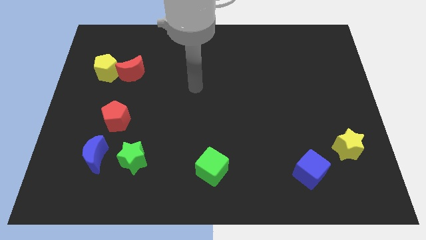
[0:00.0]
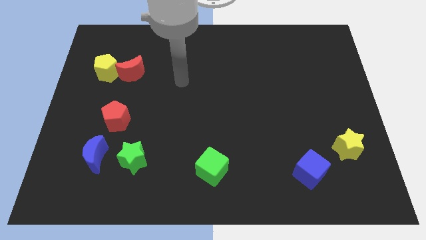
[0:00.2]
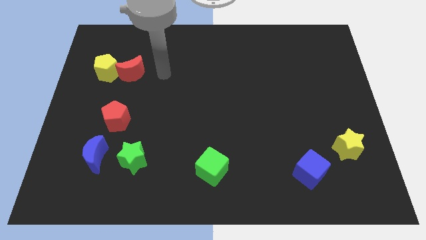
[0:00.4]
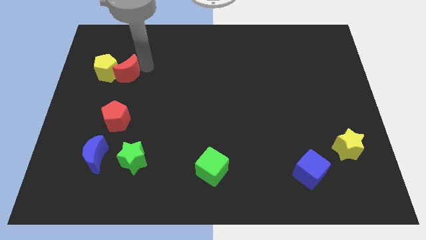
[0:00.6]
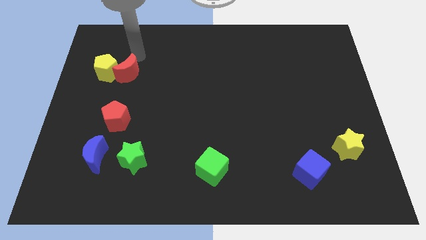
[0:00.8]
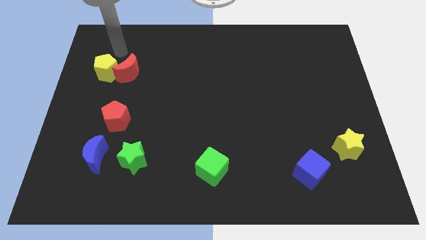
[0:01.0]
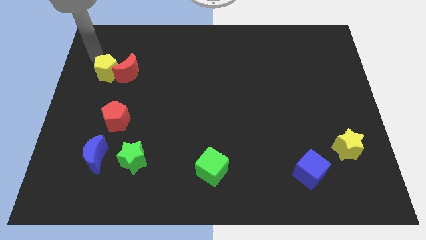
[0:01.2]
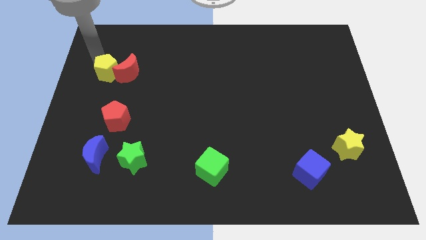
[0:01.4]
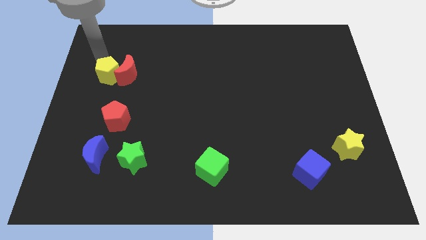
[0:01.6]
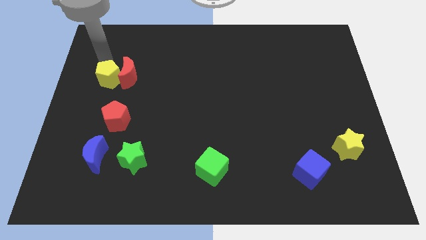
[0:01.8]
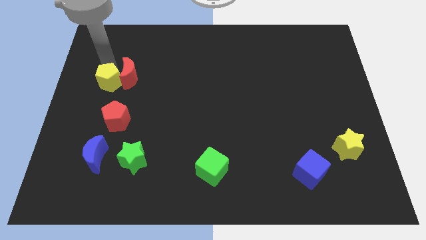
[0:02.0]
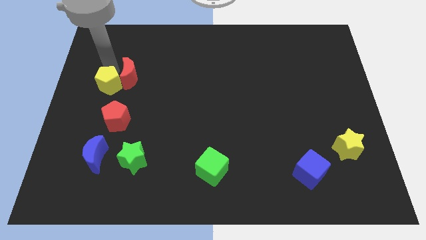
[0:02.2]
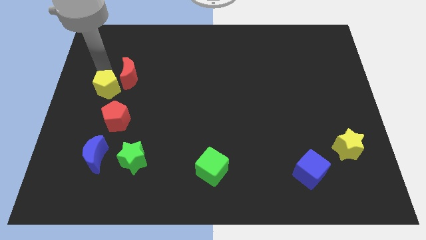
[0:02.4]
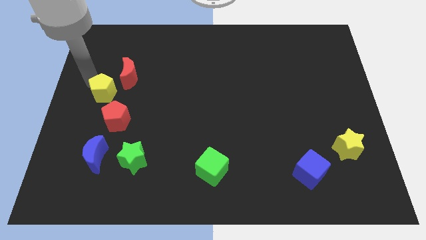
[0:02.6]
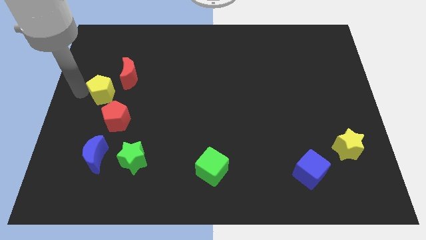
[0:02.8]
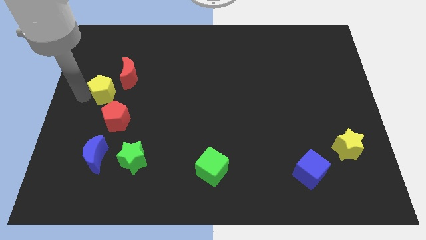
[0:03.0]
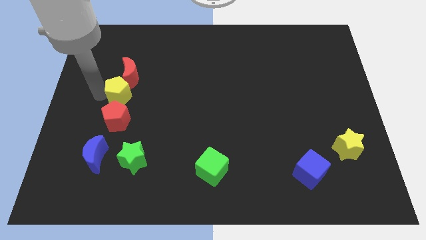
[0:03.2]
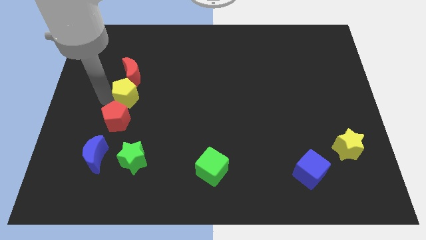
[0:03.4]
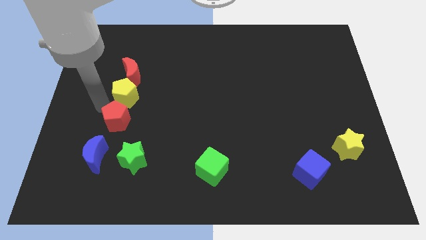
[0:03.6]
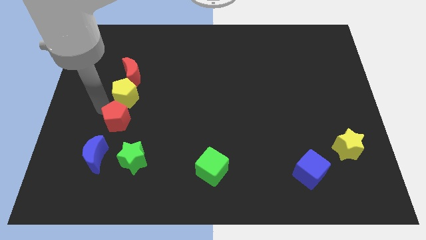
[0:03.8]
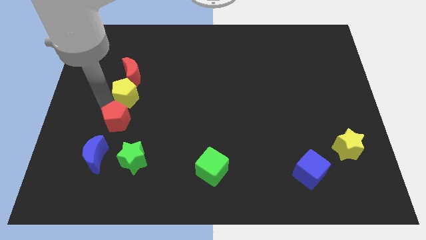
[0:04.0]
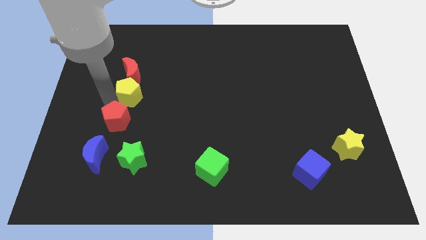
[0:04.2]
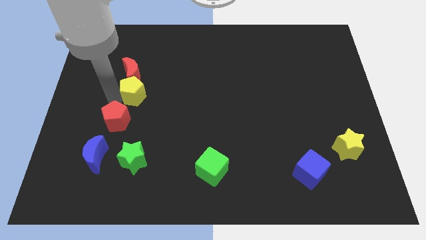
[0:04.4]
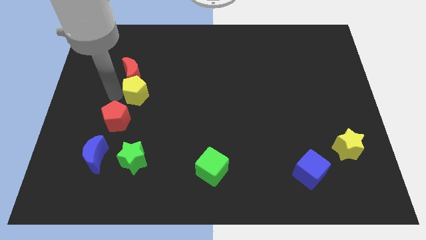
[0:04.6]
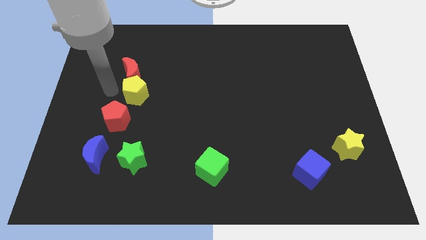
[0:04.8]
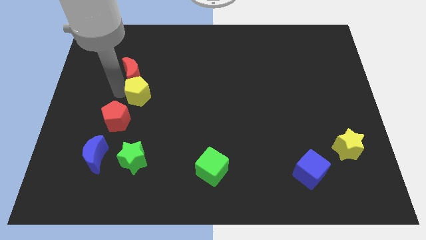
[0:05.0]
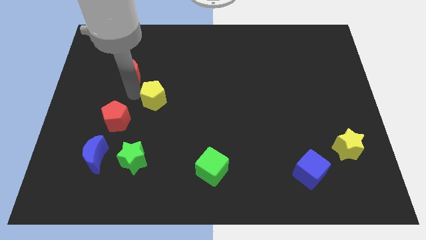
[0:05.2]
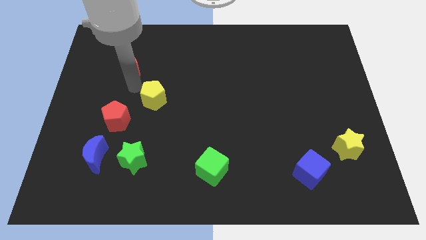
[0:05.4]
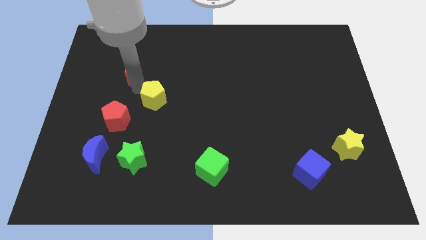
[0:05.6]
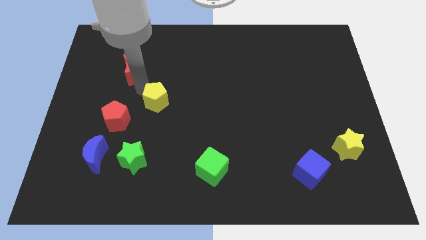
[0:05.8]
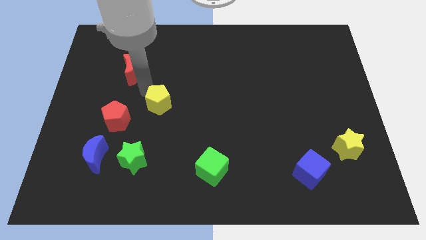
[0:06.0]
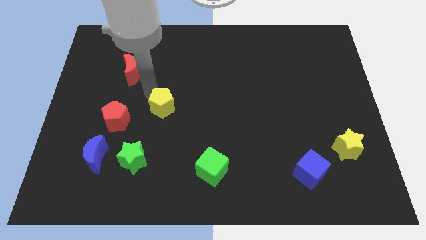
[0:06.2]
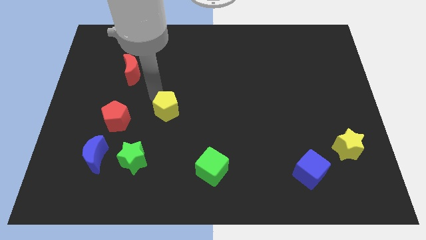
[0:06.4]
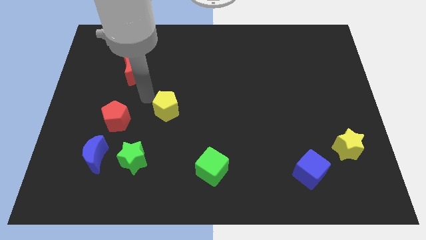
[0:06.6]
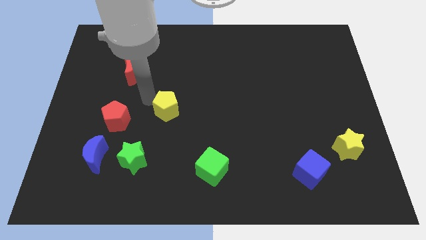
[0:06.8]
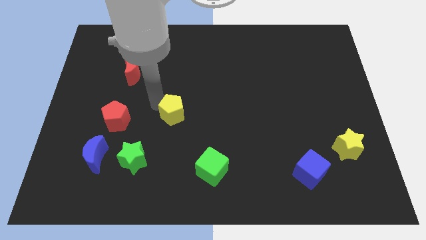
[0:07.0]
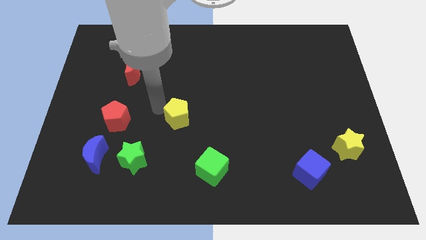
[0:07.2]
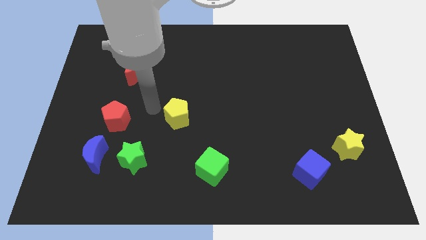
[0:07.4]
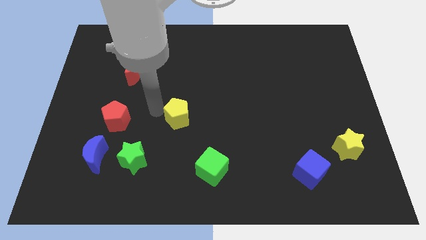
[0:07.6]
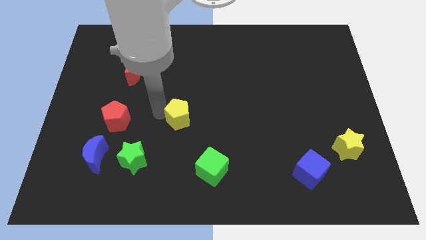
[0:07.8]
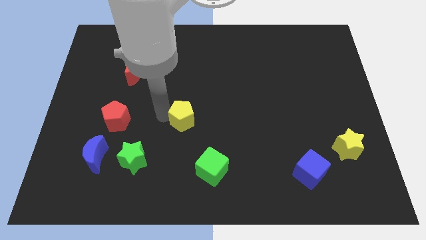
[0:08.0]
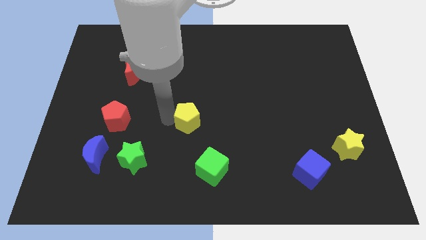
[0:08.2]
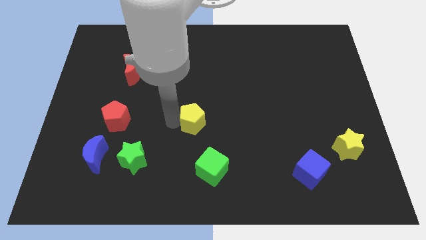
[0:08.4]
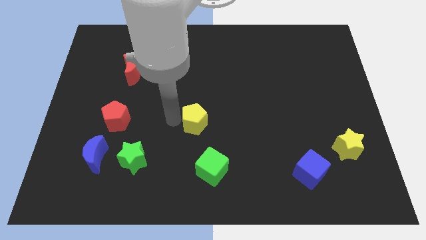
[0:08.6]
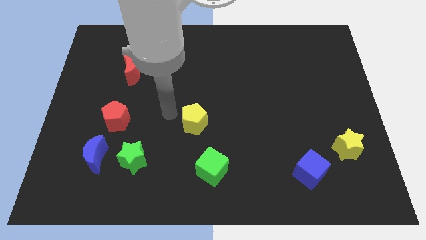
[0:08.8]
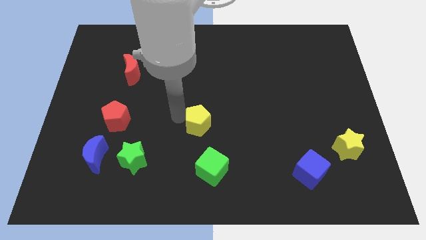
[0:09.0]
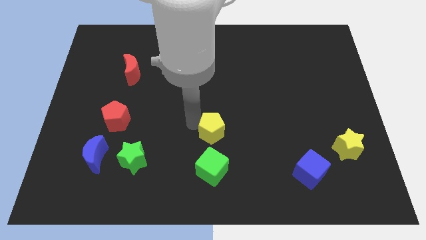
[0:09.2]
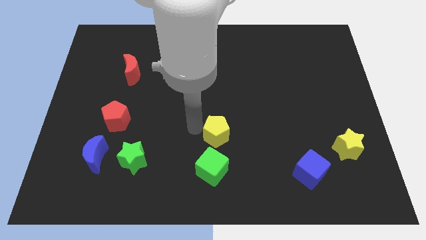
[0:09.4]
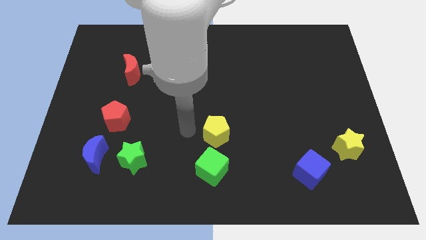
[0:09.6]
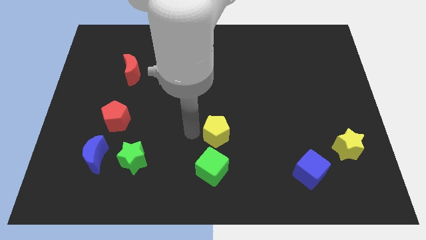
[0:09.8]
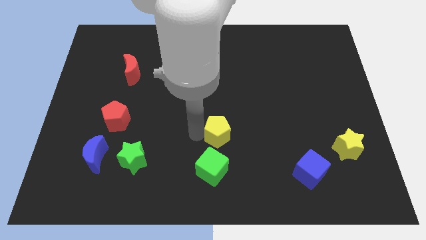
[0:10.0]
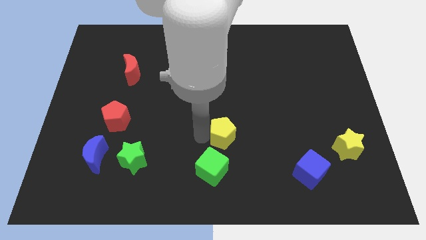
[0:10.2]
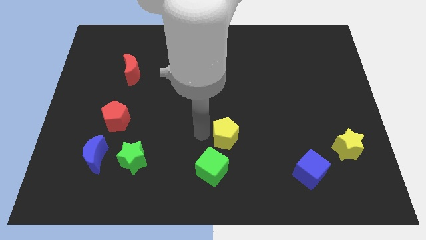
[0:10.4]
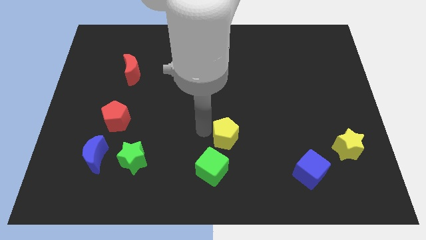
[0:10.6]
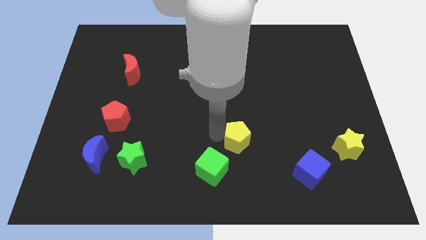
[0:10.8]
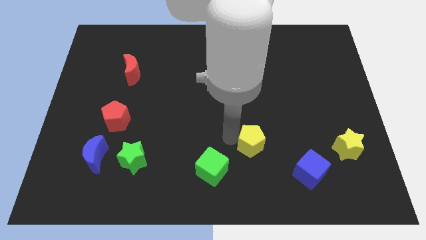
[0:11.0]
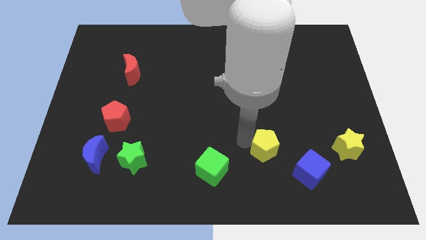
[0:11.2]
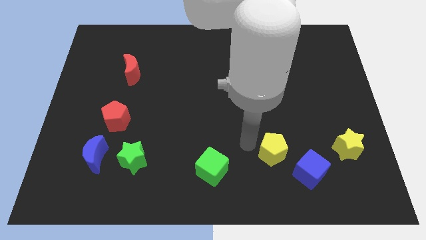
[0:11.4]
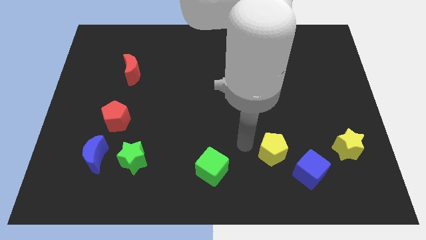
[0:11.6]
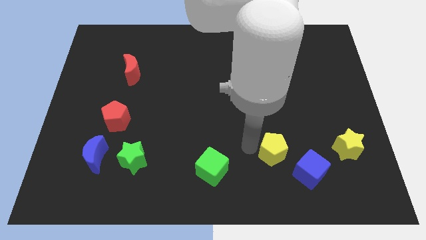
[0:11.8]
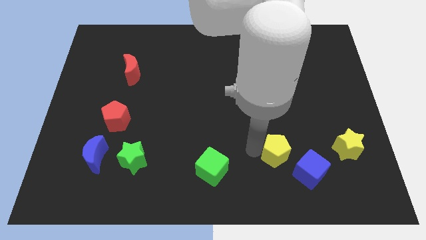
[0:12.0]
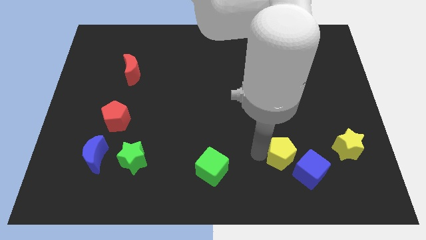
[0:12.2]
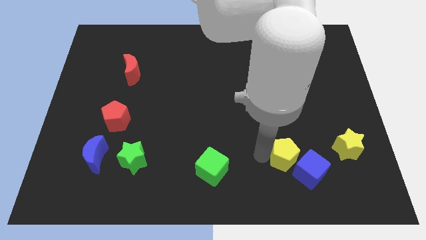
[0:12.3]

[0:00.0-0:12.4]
slide the yellow pentagon to the blue cube
